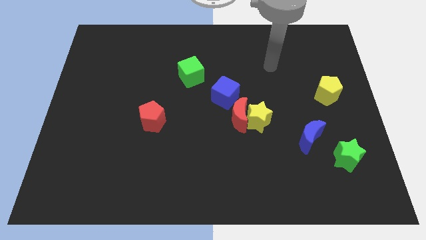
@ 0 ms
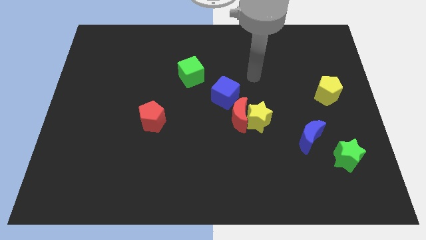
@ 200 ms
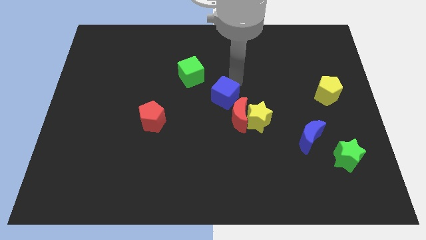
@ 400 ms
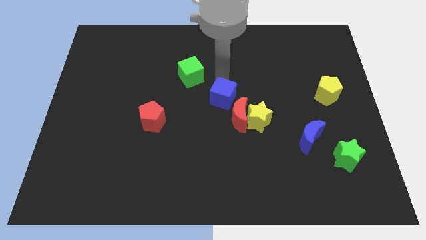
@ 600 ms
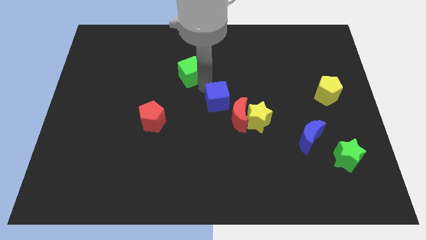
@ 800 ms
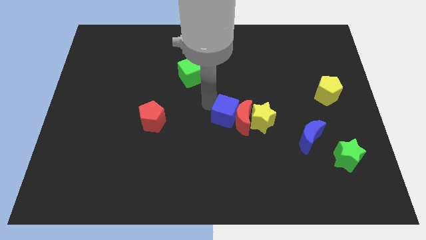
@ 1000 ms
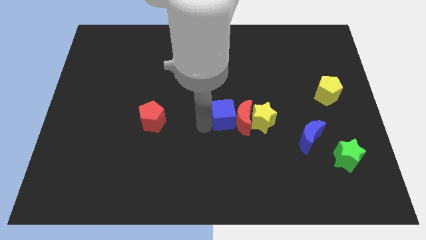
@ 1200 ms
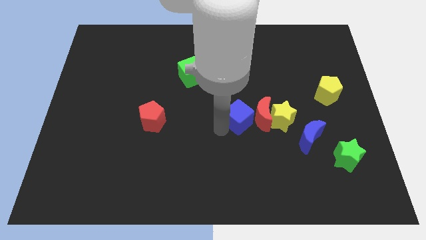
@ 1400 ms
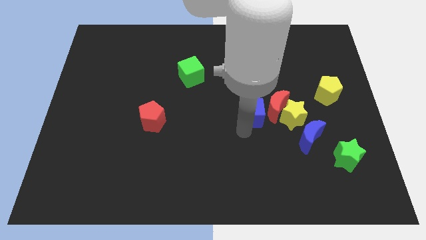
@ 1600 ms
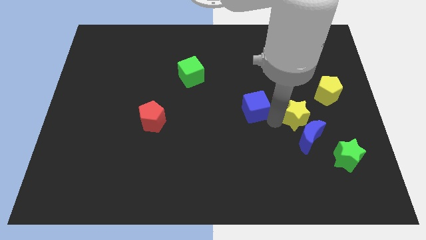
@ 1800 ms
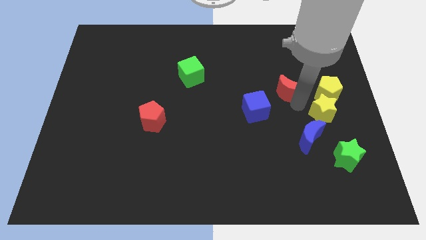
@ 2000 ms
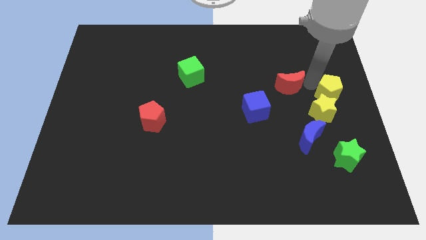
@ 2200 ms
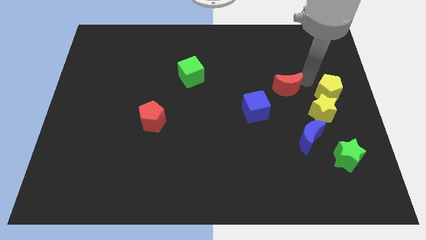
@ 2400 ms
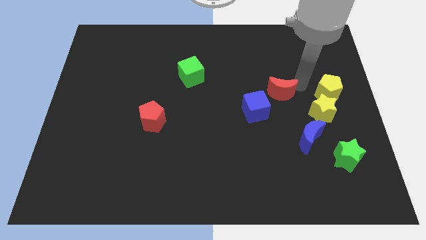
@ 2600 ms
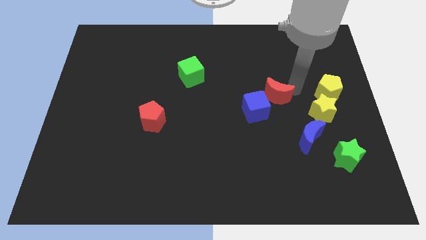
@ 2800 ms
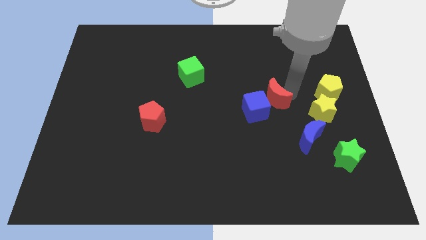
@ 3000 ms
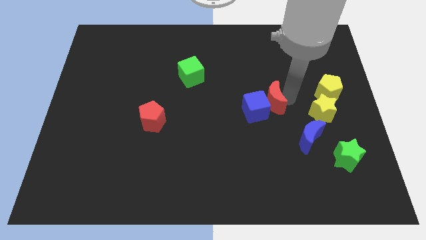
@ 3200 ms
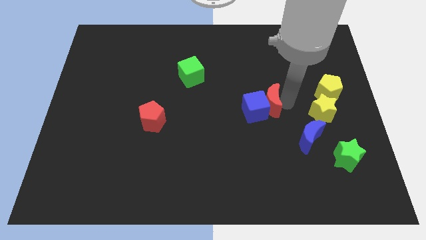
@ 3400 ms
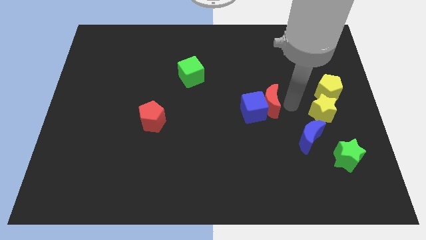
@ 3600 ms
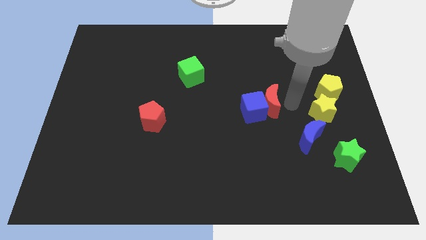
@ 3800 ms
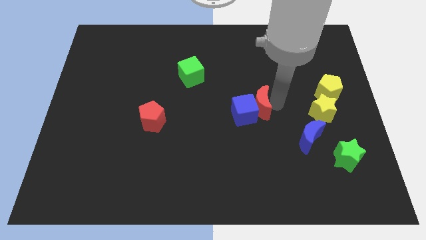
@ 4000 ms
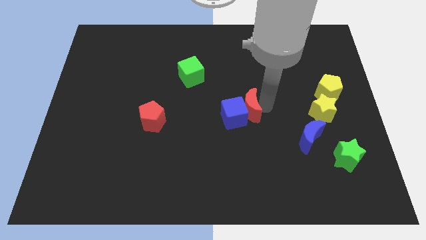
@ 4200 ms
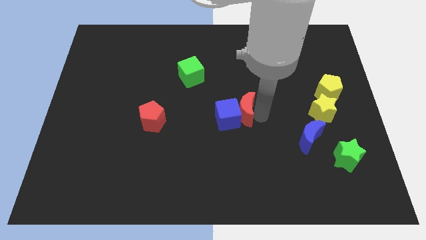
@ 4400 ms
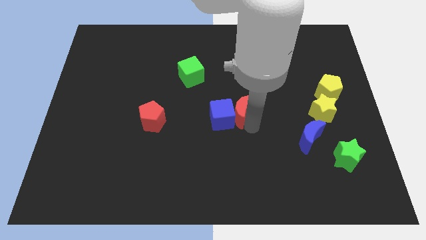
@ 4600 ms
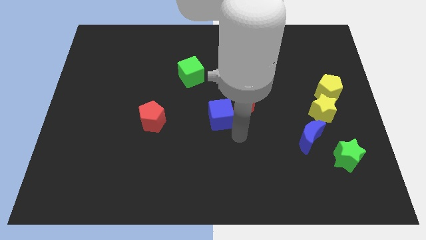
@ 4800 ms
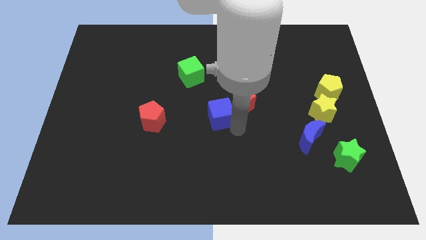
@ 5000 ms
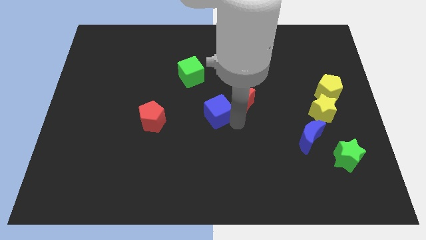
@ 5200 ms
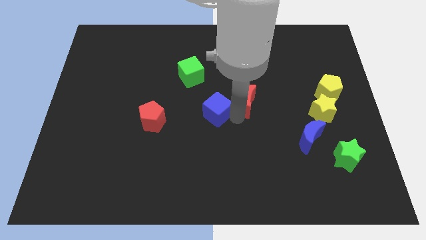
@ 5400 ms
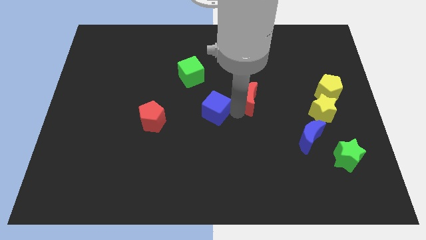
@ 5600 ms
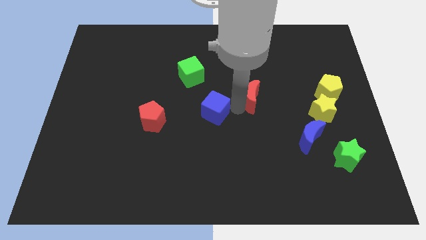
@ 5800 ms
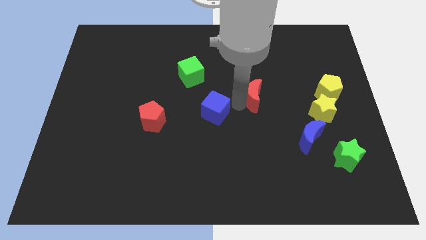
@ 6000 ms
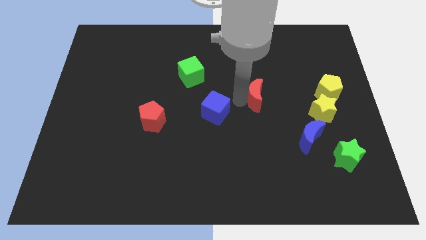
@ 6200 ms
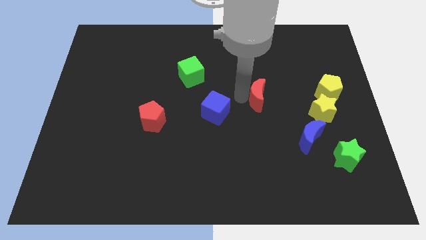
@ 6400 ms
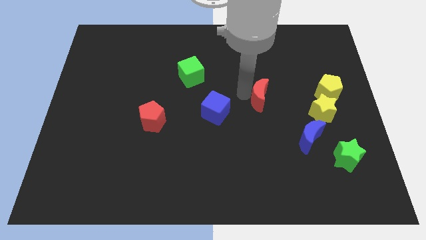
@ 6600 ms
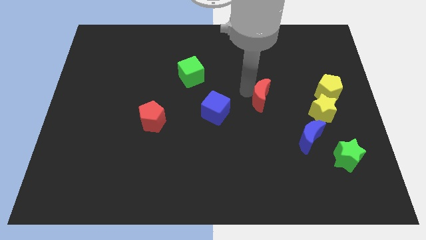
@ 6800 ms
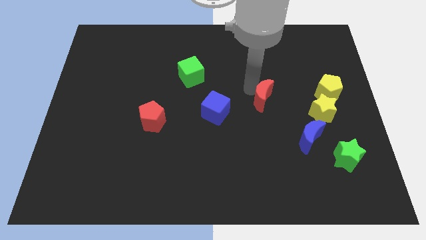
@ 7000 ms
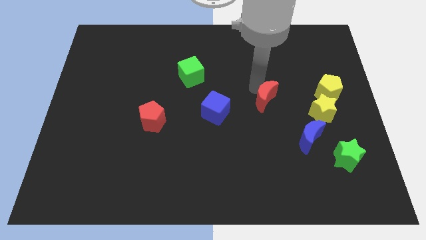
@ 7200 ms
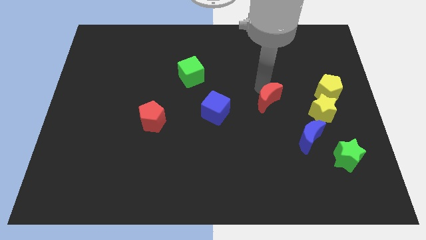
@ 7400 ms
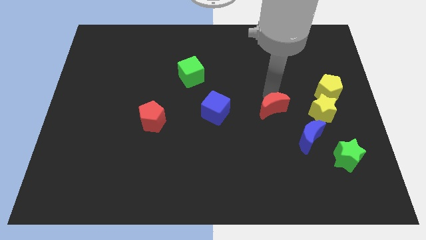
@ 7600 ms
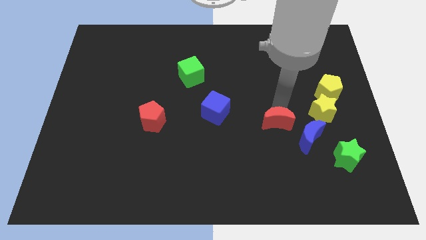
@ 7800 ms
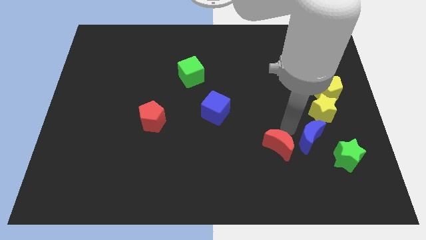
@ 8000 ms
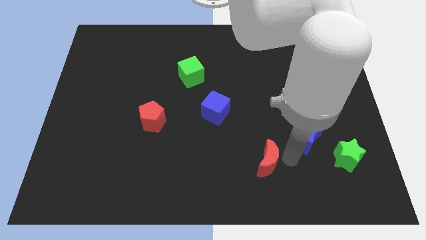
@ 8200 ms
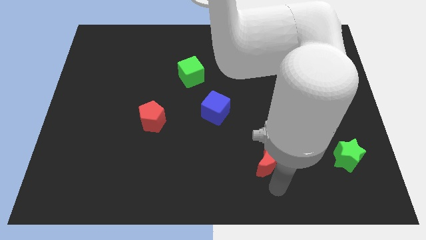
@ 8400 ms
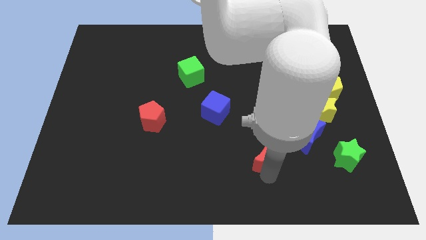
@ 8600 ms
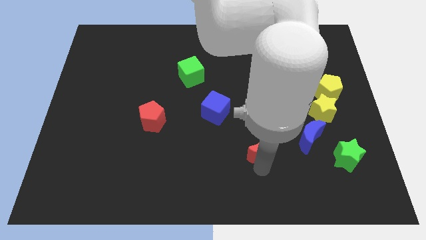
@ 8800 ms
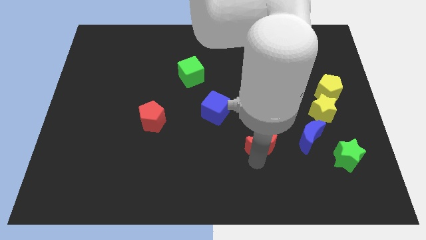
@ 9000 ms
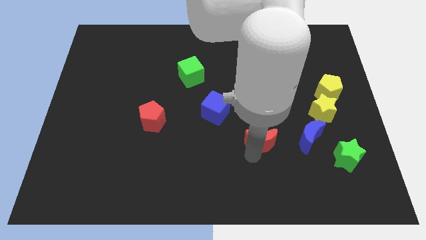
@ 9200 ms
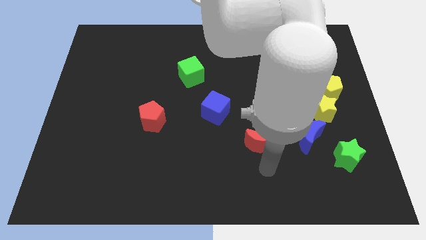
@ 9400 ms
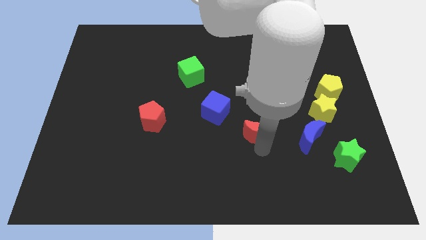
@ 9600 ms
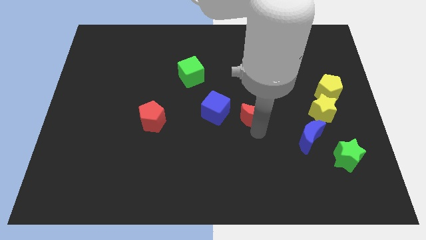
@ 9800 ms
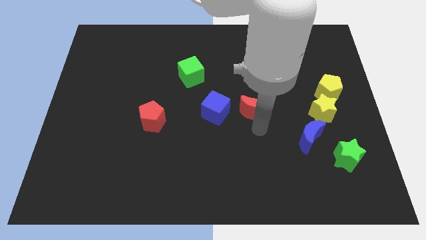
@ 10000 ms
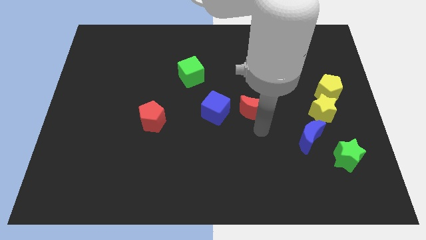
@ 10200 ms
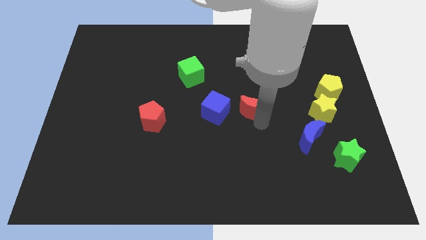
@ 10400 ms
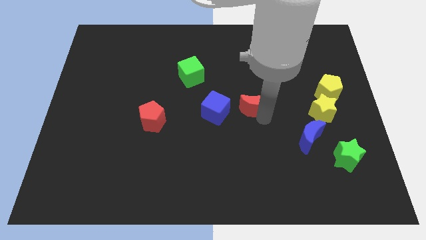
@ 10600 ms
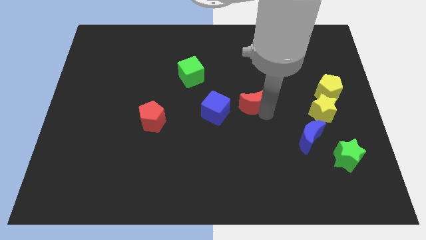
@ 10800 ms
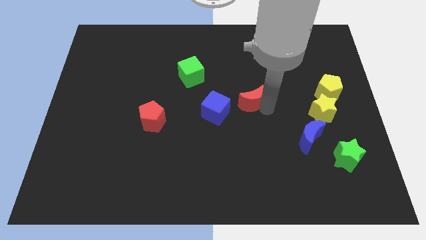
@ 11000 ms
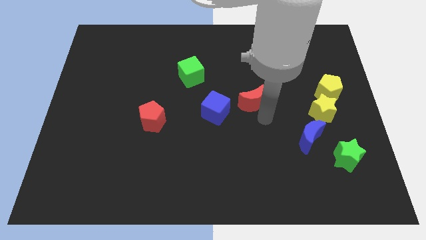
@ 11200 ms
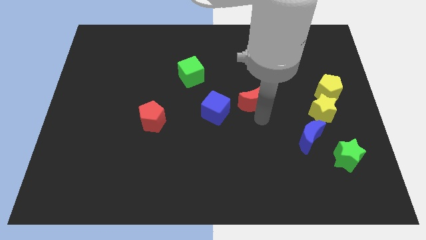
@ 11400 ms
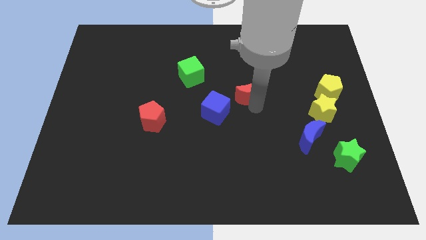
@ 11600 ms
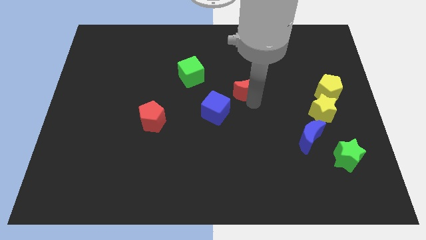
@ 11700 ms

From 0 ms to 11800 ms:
slide the red moon up slightly

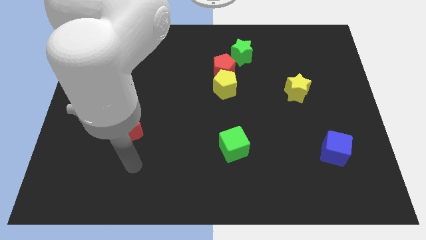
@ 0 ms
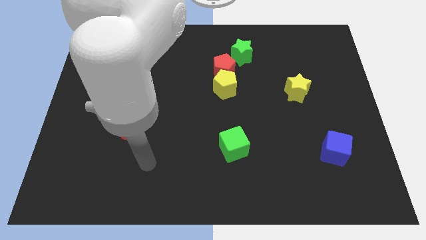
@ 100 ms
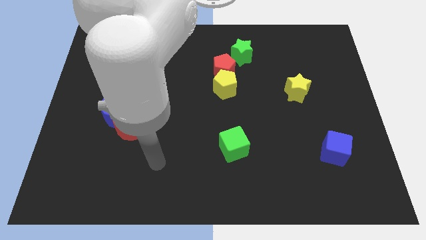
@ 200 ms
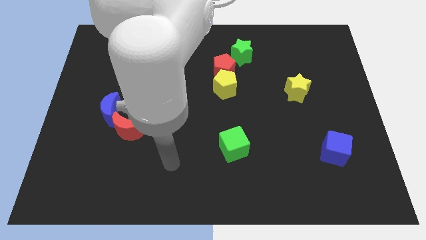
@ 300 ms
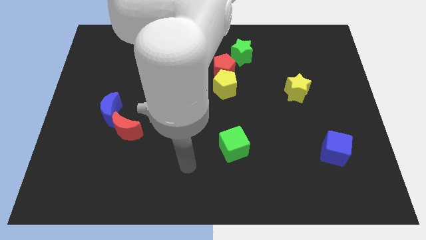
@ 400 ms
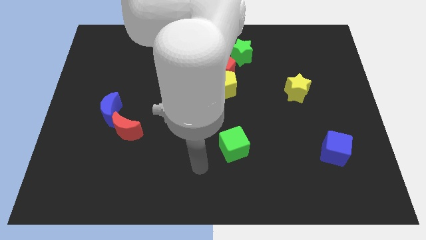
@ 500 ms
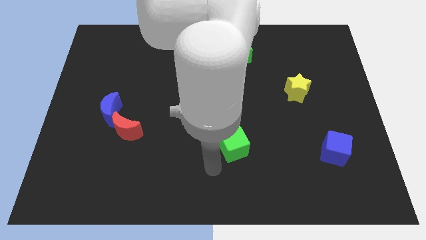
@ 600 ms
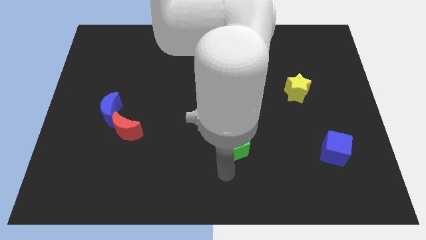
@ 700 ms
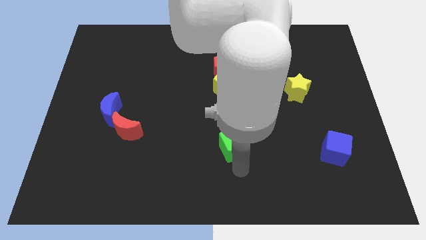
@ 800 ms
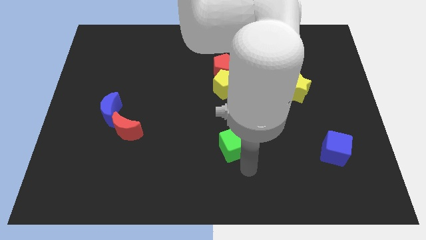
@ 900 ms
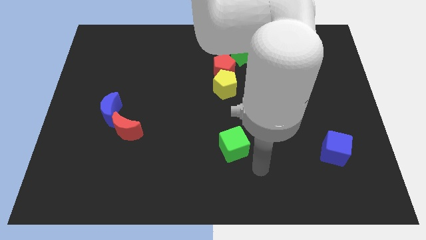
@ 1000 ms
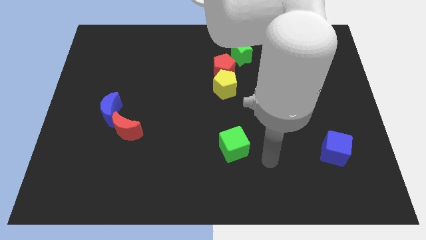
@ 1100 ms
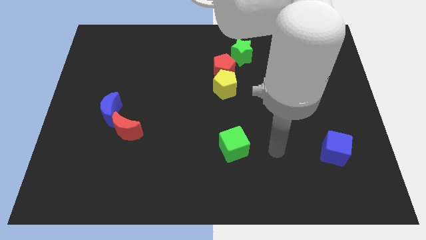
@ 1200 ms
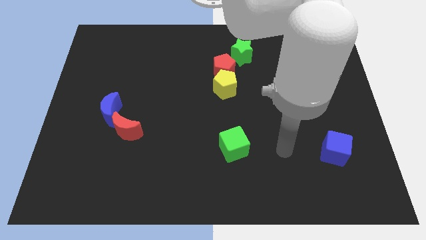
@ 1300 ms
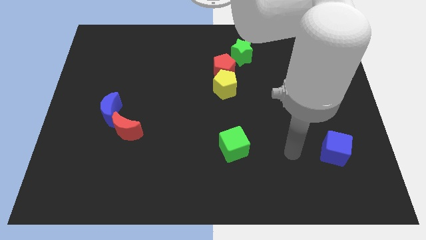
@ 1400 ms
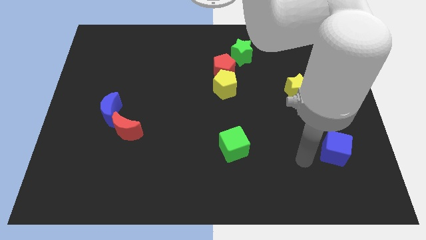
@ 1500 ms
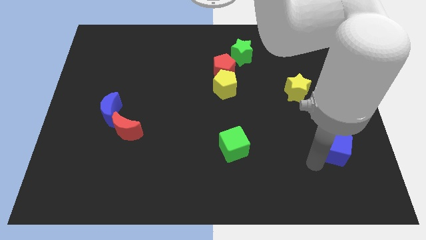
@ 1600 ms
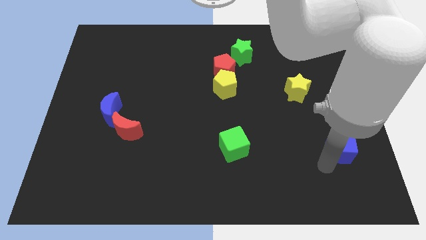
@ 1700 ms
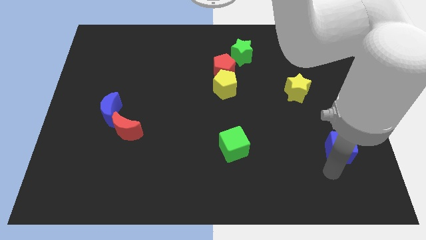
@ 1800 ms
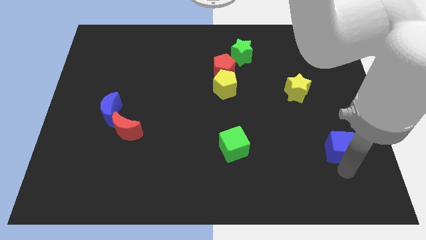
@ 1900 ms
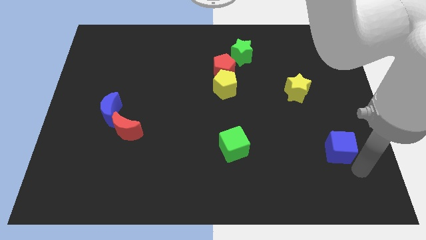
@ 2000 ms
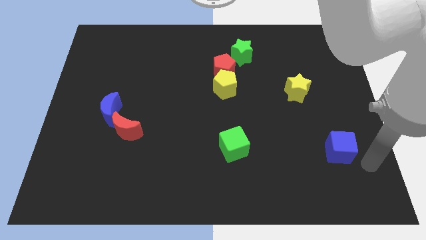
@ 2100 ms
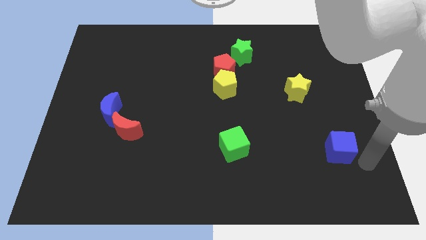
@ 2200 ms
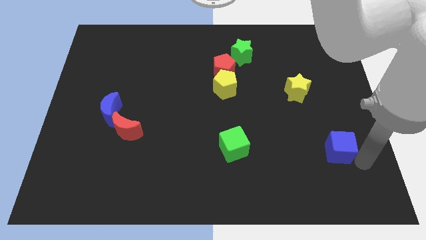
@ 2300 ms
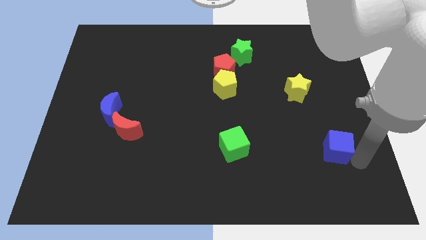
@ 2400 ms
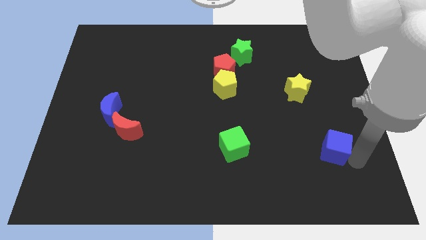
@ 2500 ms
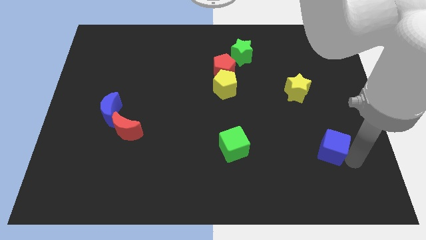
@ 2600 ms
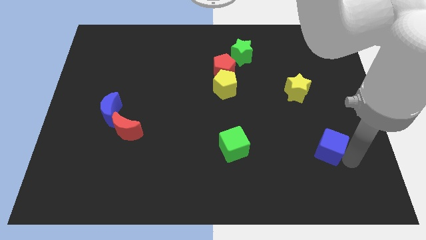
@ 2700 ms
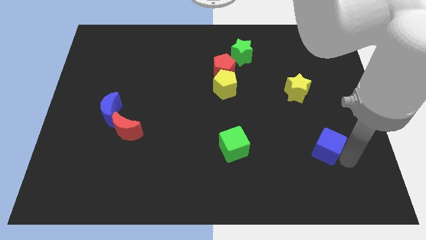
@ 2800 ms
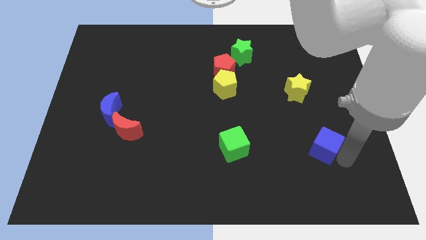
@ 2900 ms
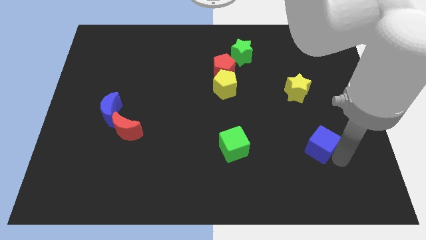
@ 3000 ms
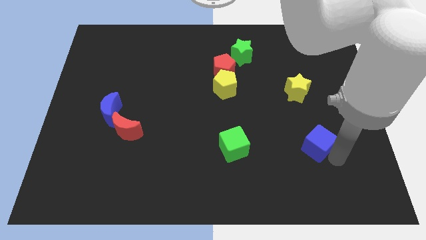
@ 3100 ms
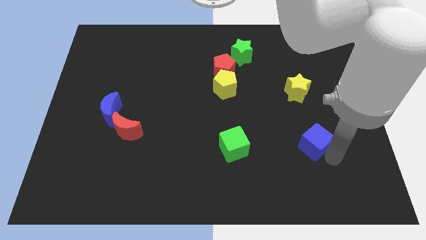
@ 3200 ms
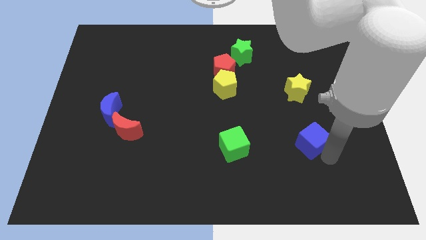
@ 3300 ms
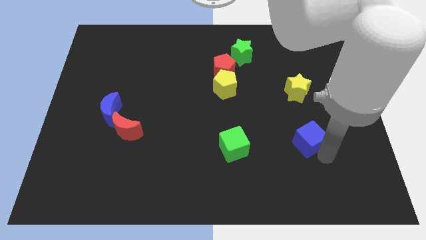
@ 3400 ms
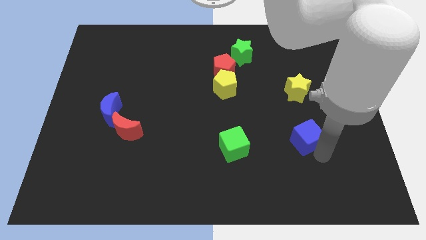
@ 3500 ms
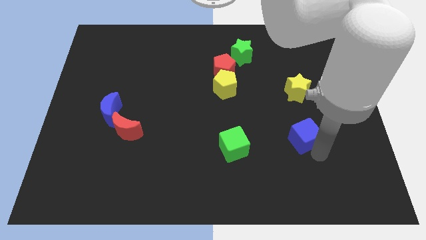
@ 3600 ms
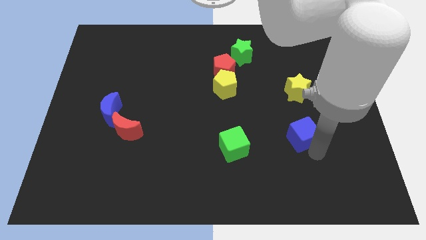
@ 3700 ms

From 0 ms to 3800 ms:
slide the blue cube a little up and left diagonally
